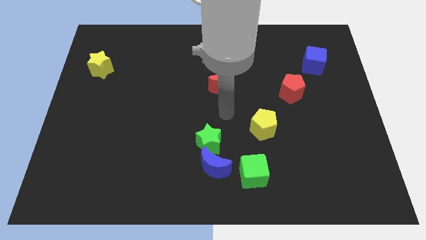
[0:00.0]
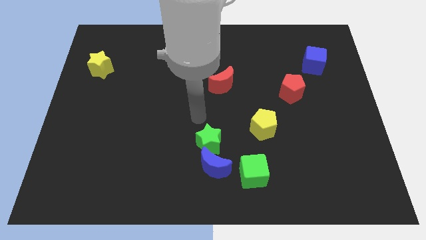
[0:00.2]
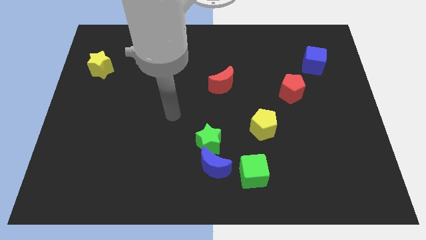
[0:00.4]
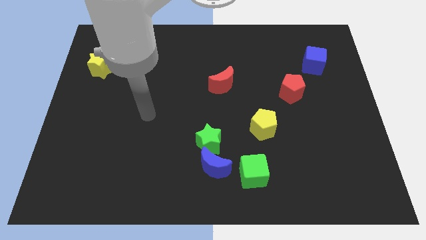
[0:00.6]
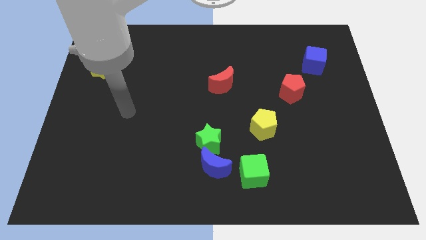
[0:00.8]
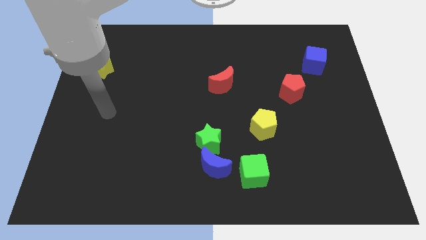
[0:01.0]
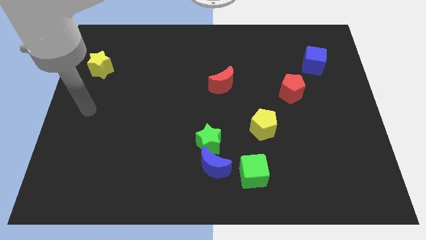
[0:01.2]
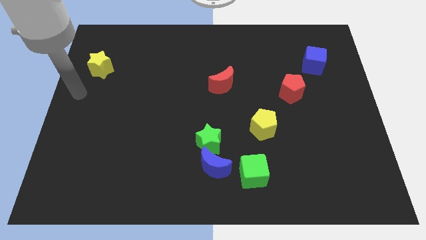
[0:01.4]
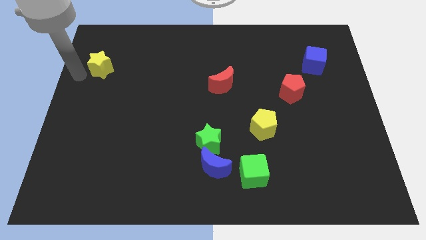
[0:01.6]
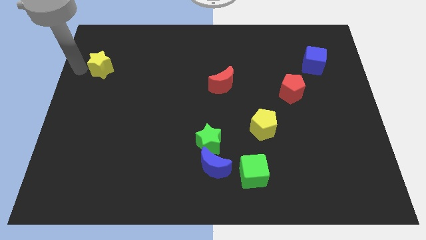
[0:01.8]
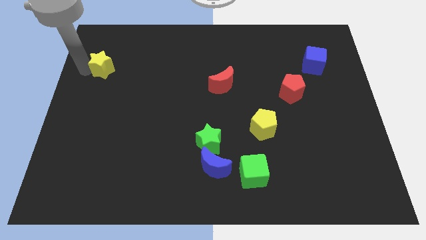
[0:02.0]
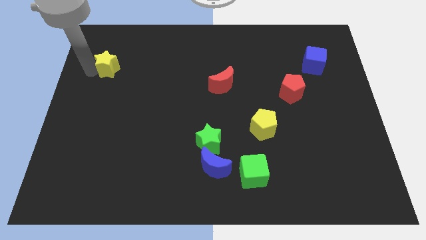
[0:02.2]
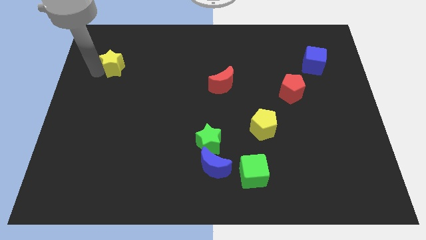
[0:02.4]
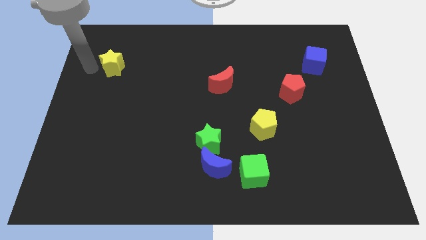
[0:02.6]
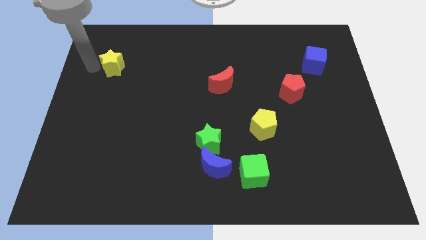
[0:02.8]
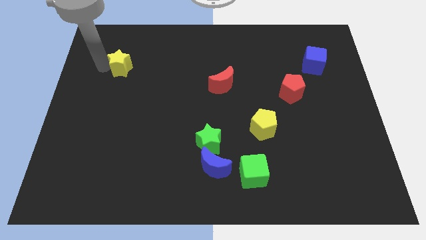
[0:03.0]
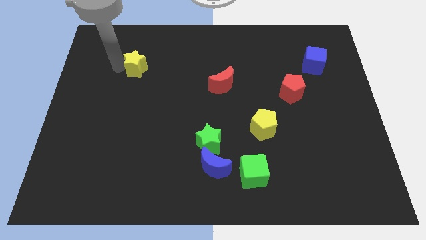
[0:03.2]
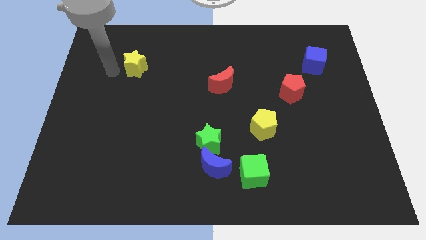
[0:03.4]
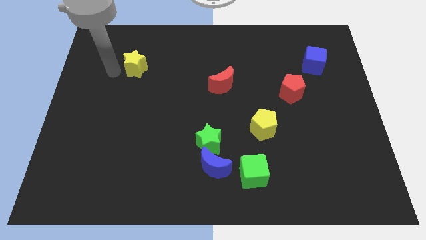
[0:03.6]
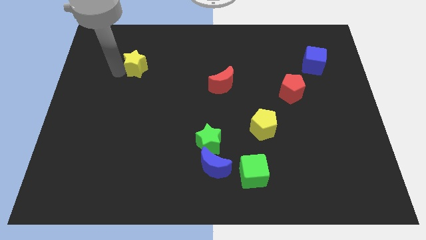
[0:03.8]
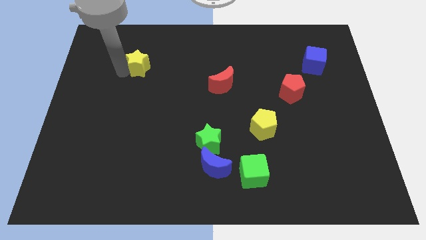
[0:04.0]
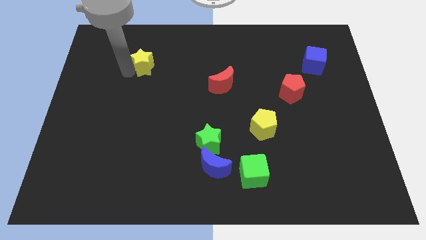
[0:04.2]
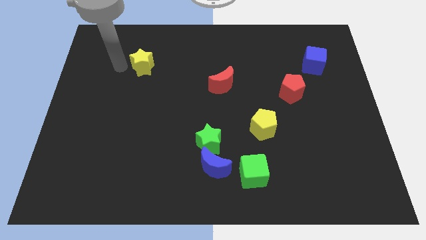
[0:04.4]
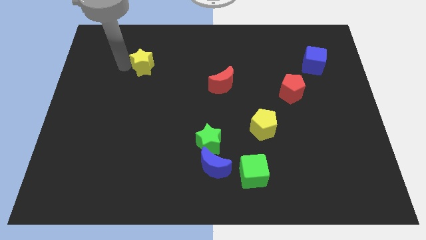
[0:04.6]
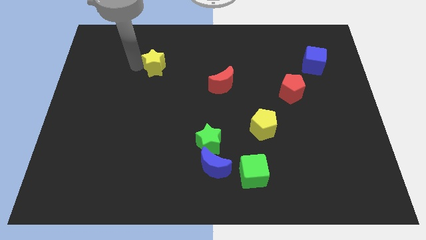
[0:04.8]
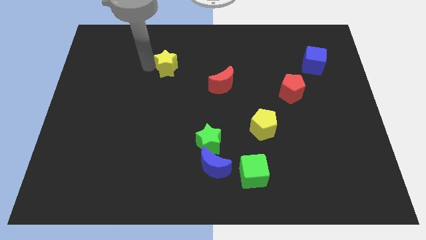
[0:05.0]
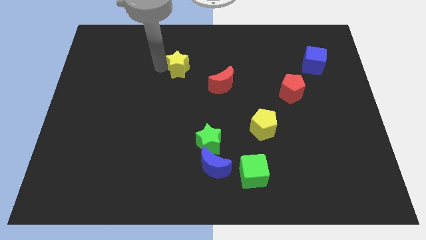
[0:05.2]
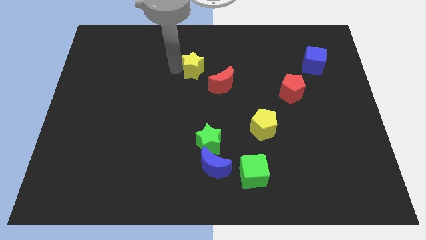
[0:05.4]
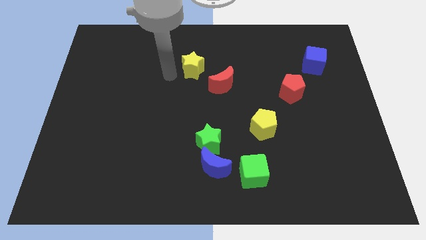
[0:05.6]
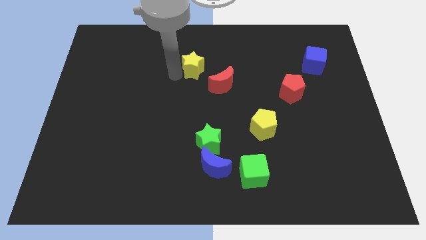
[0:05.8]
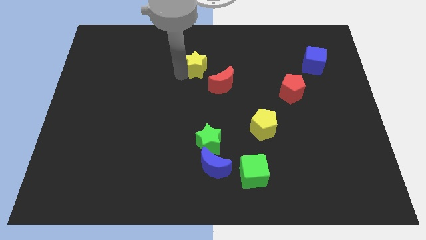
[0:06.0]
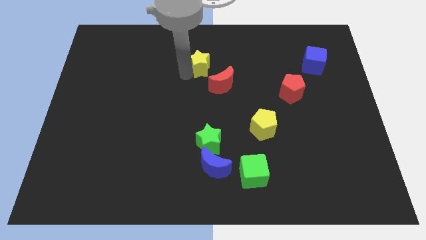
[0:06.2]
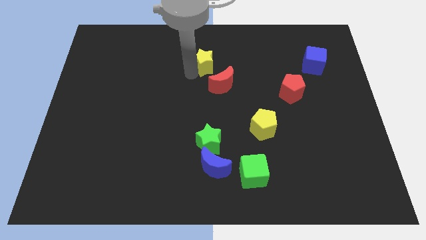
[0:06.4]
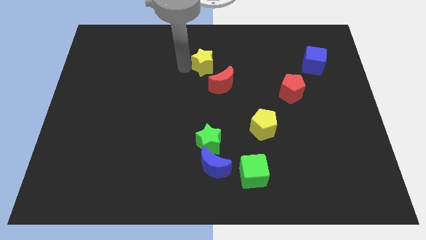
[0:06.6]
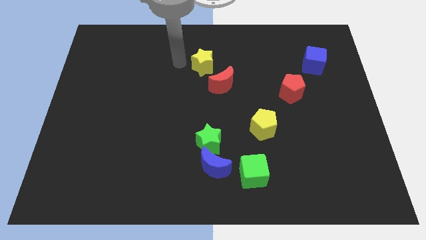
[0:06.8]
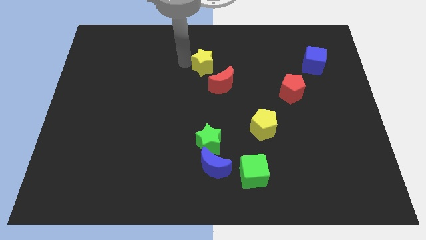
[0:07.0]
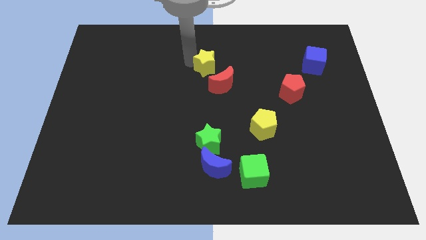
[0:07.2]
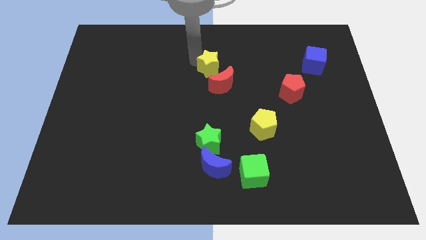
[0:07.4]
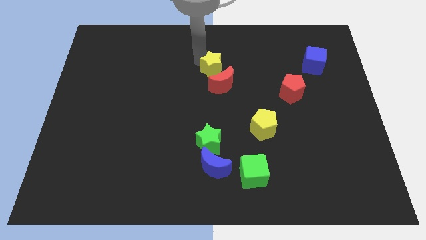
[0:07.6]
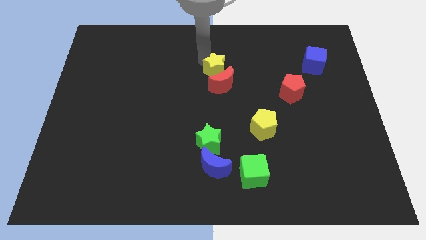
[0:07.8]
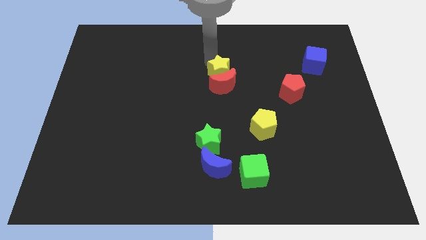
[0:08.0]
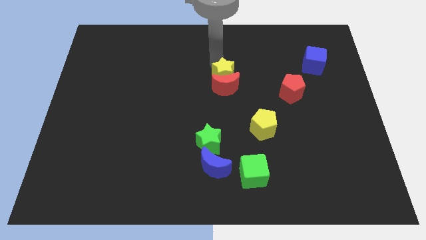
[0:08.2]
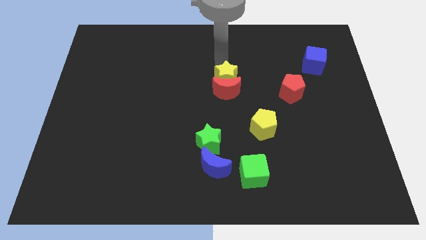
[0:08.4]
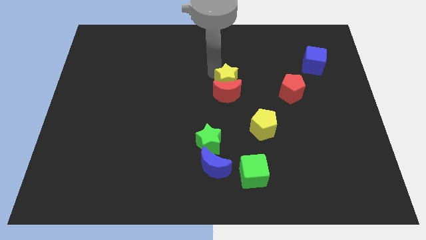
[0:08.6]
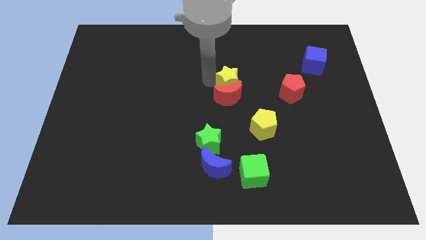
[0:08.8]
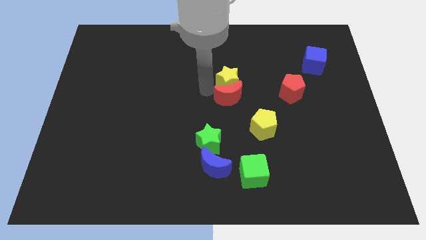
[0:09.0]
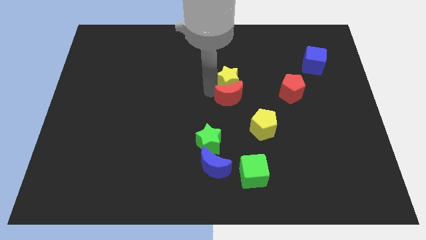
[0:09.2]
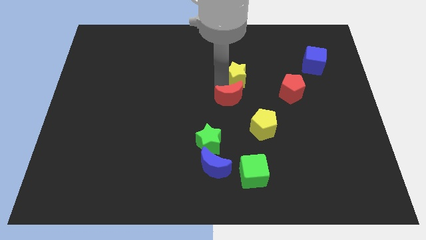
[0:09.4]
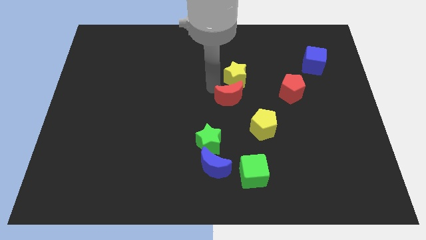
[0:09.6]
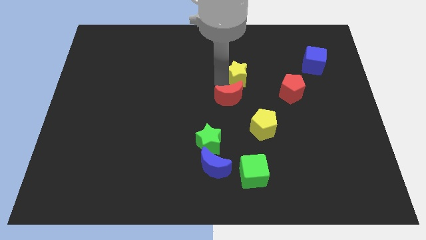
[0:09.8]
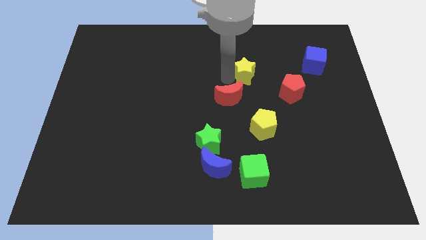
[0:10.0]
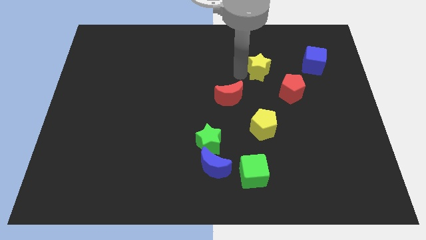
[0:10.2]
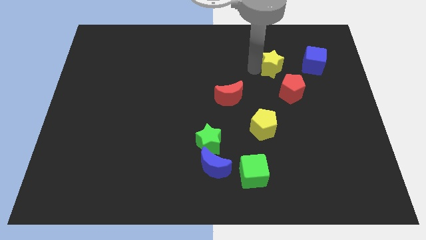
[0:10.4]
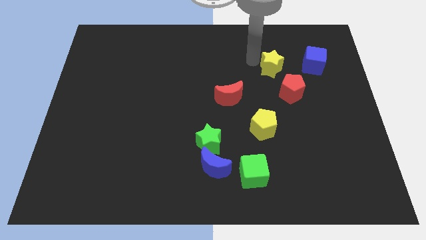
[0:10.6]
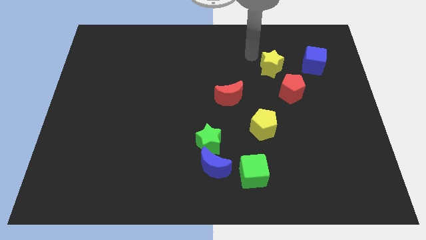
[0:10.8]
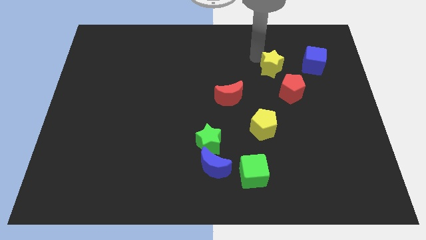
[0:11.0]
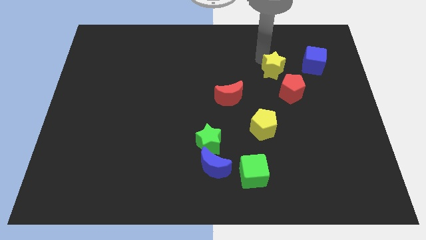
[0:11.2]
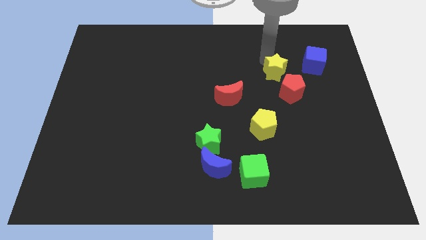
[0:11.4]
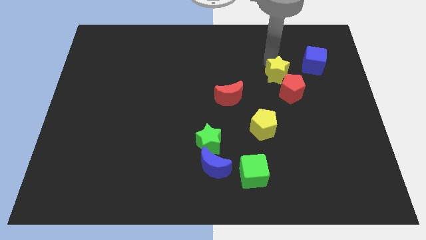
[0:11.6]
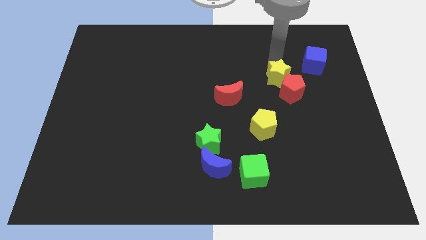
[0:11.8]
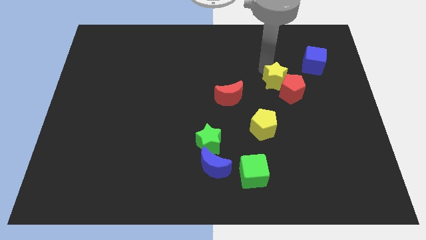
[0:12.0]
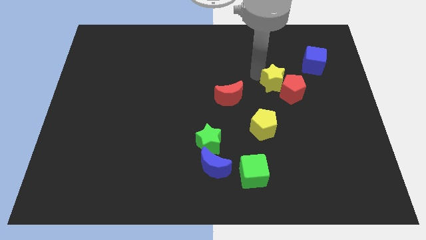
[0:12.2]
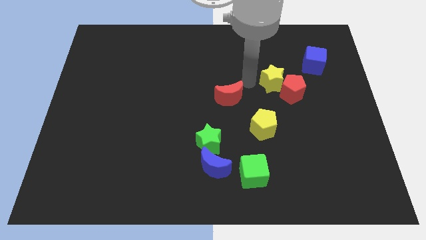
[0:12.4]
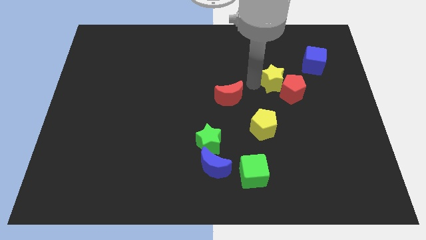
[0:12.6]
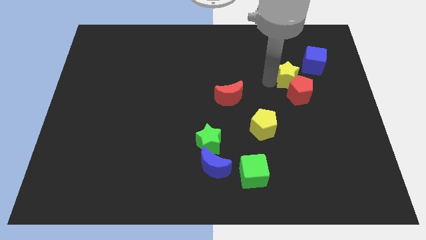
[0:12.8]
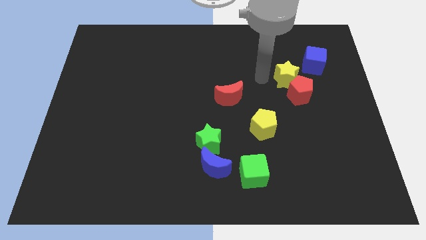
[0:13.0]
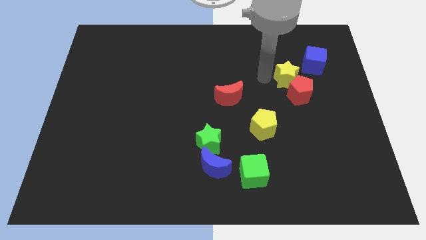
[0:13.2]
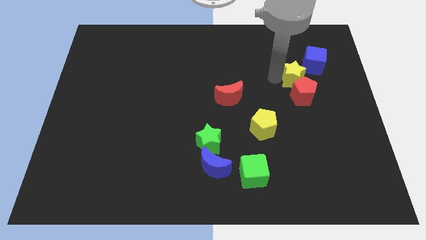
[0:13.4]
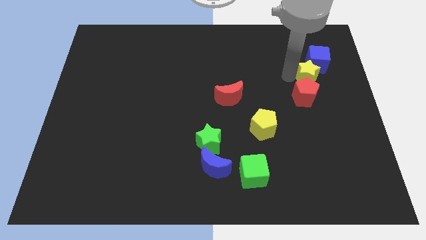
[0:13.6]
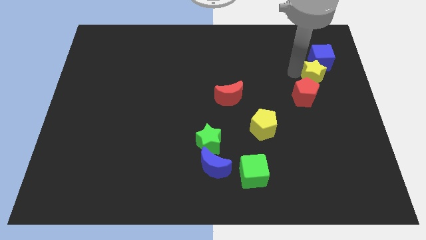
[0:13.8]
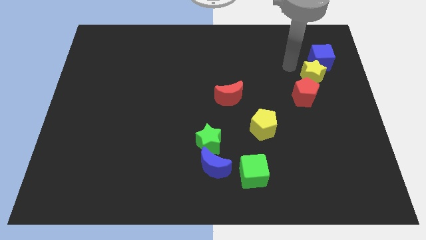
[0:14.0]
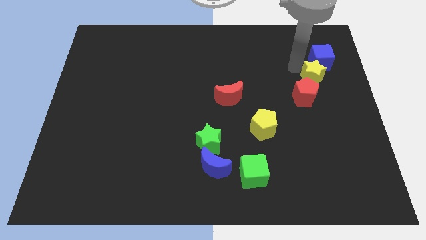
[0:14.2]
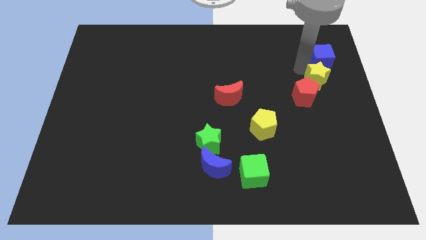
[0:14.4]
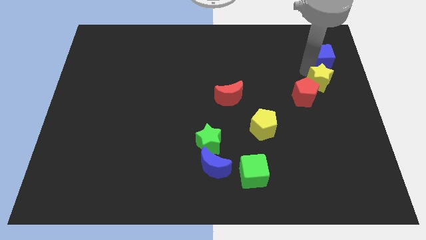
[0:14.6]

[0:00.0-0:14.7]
move the yellow star to the right side of the board
